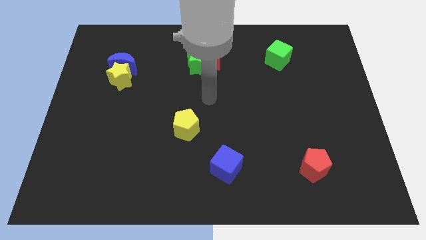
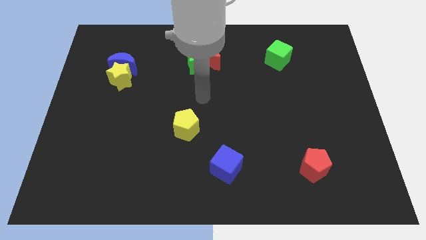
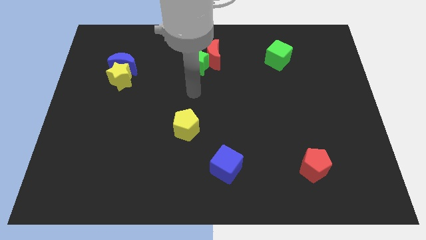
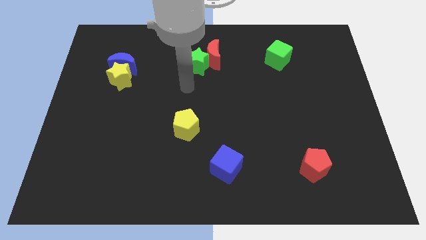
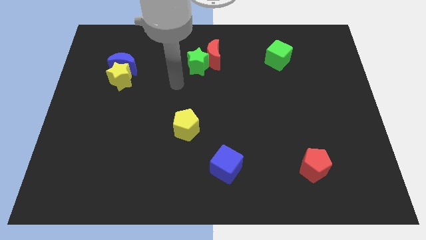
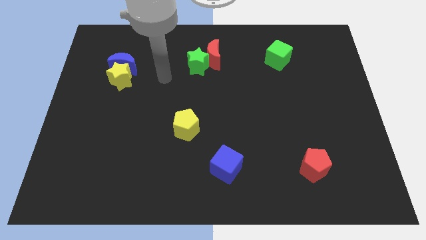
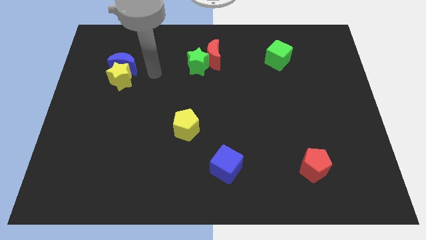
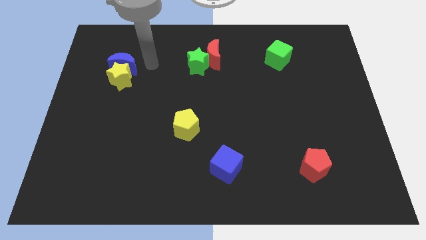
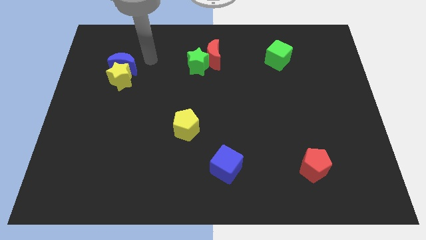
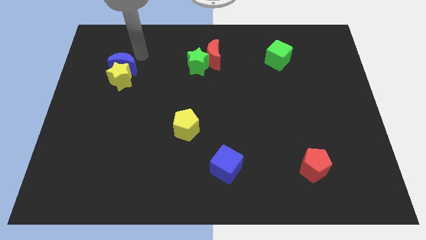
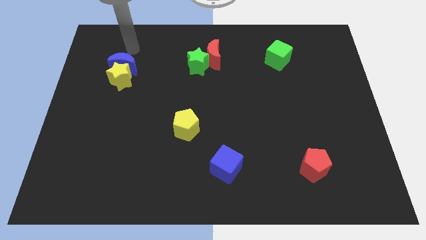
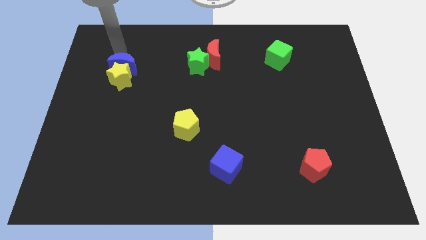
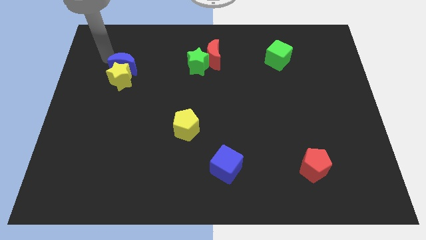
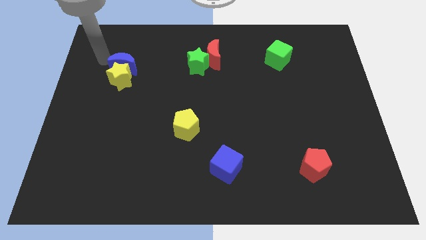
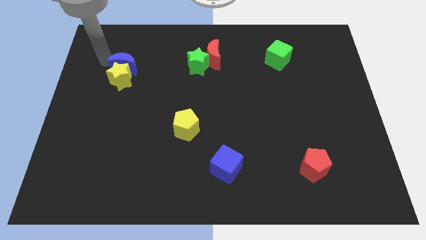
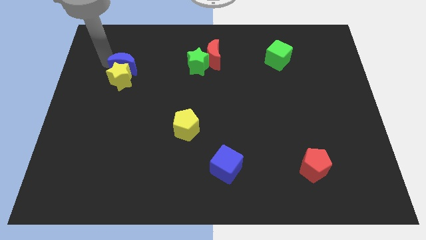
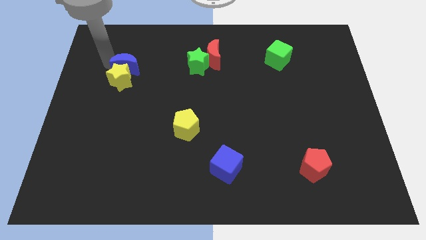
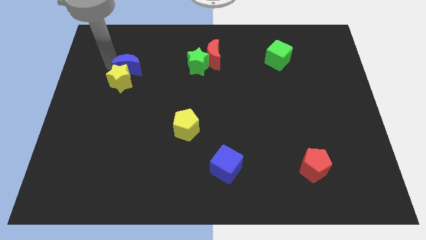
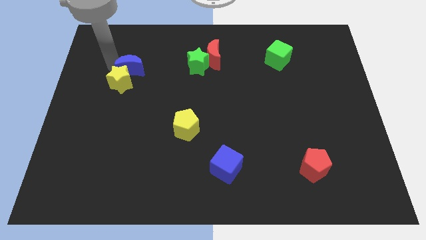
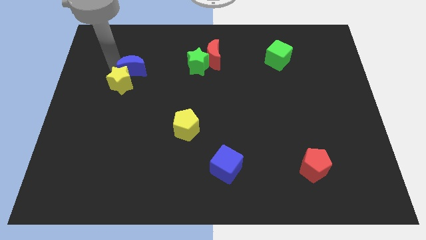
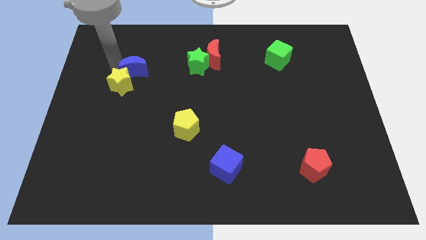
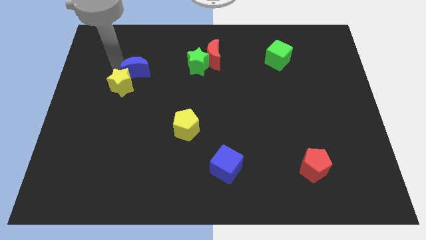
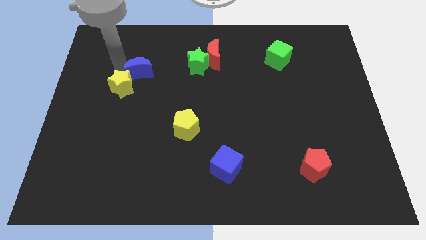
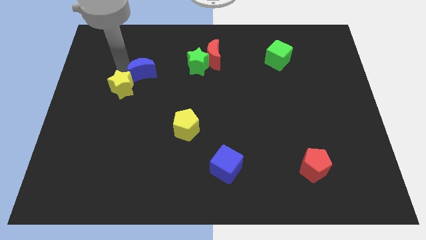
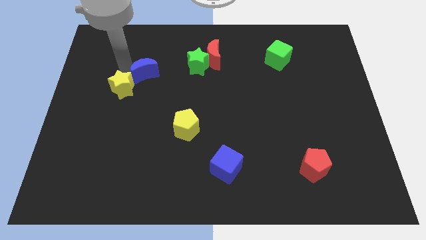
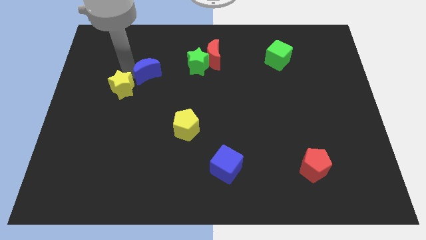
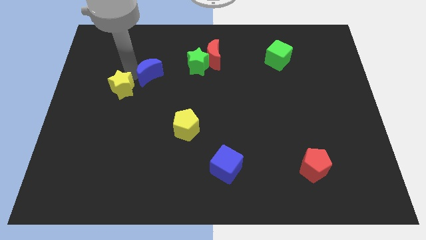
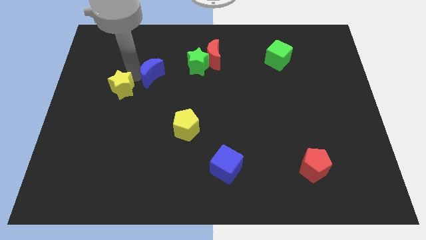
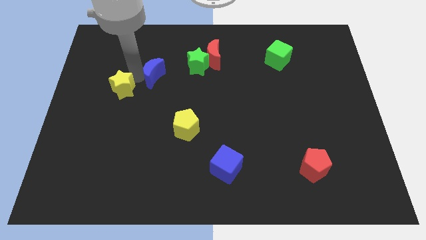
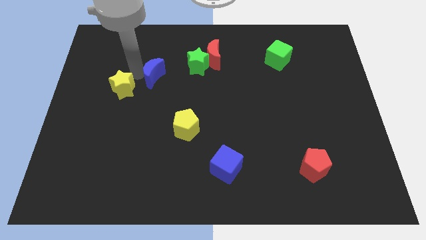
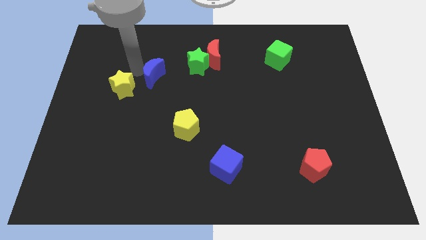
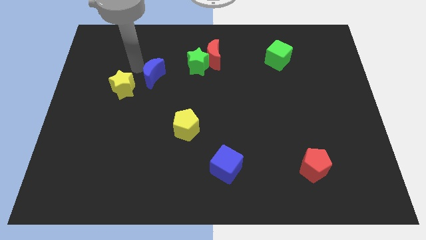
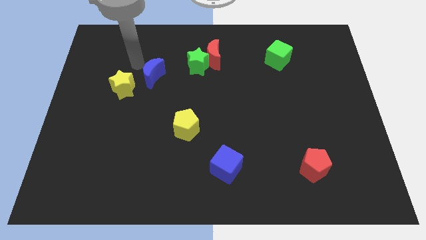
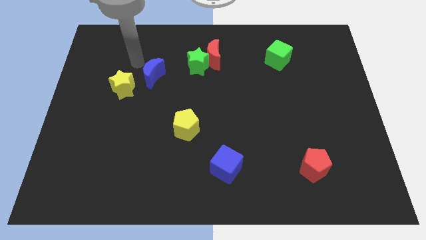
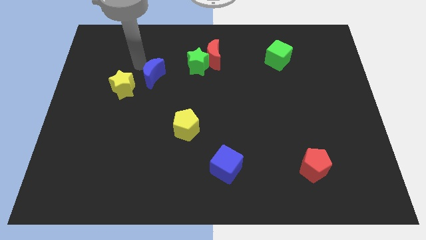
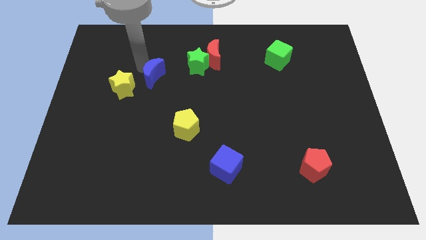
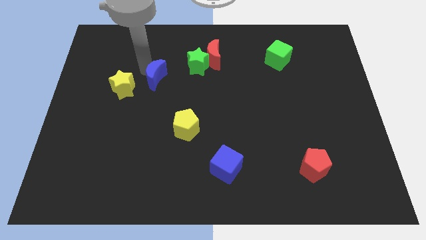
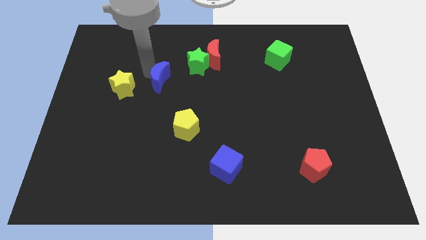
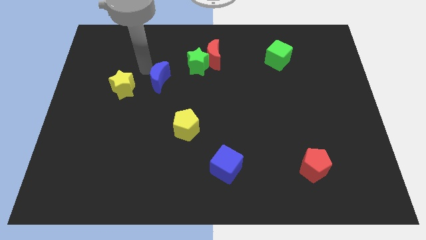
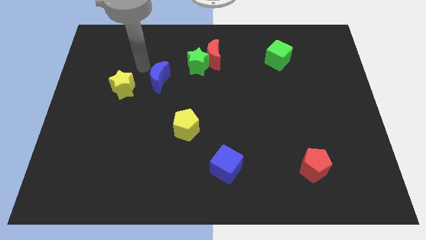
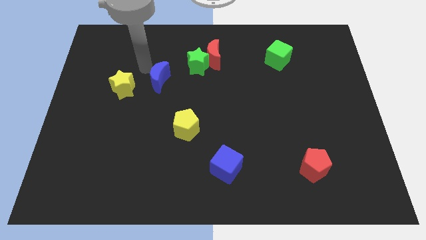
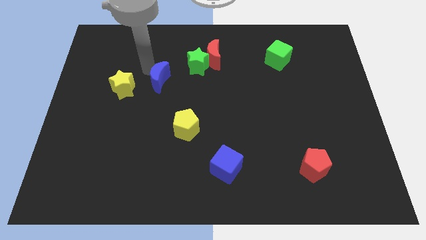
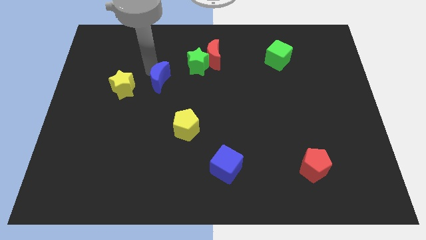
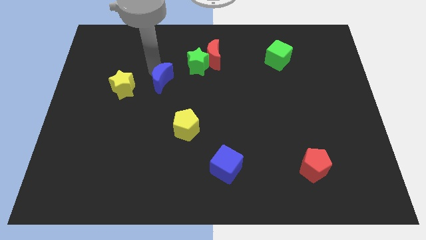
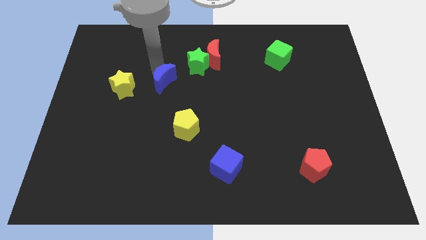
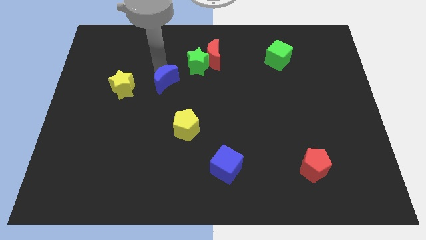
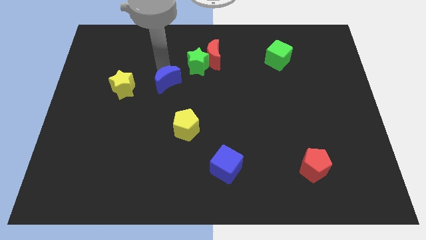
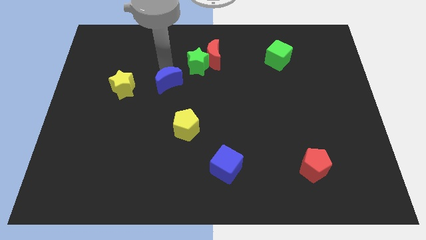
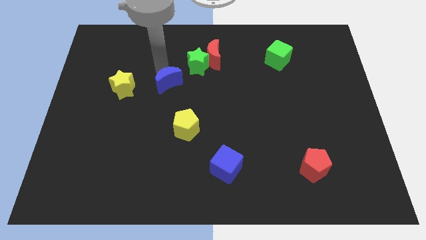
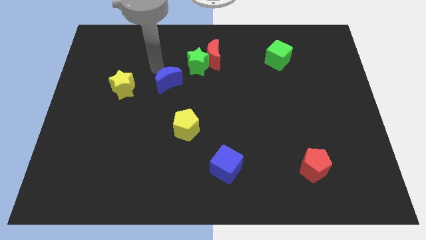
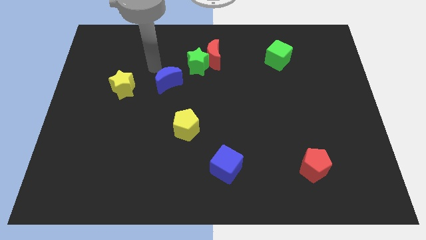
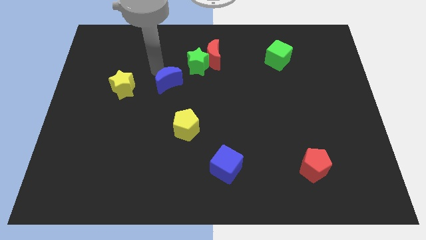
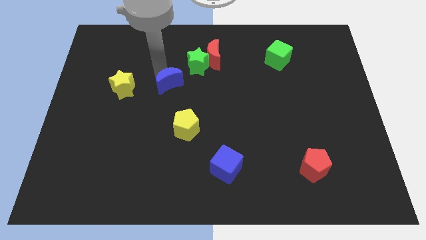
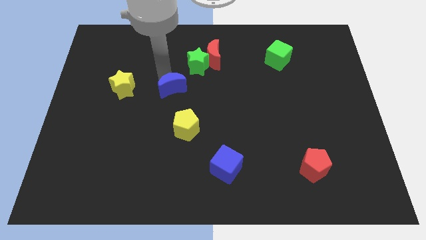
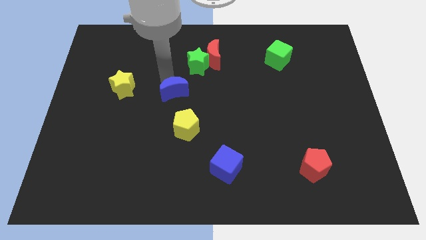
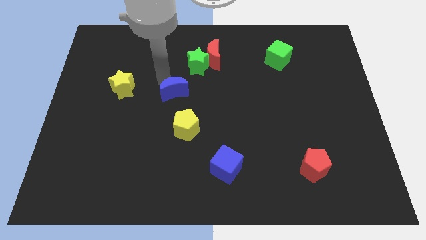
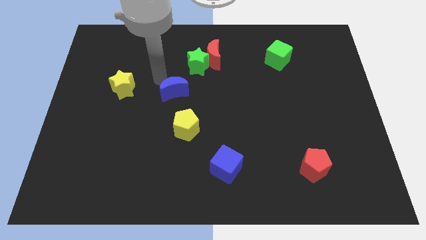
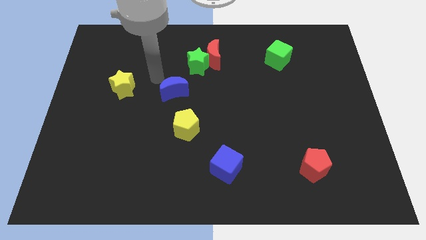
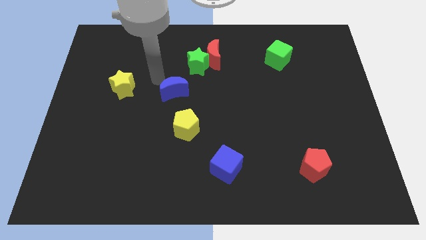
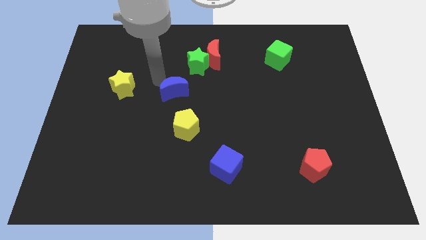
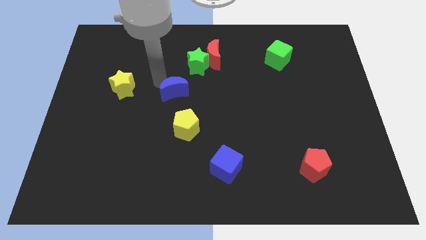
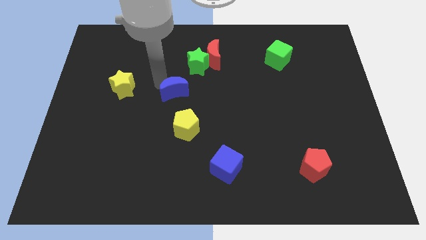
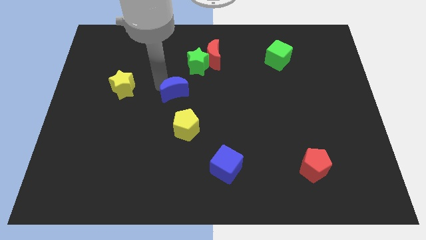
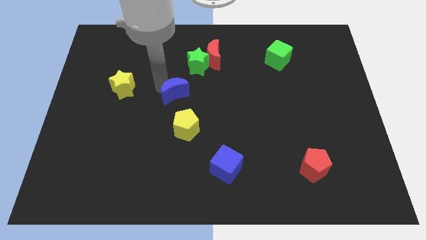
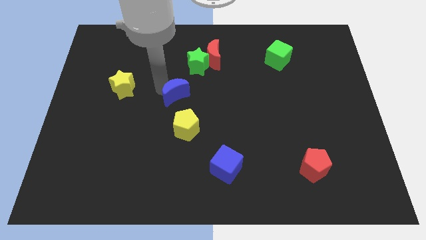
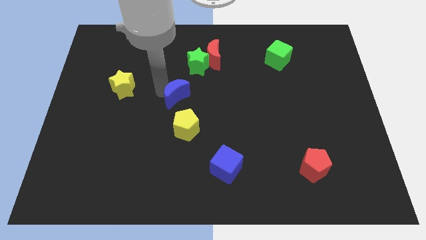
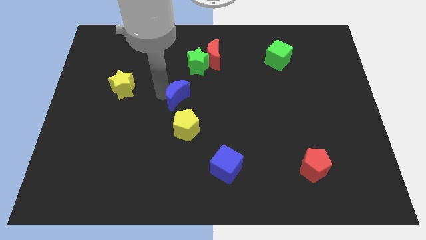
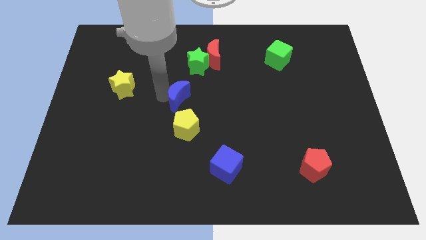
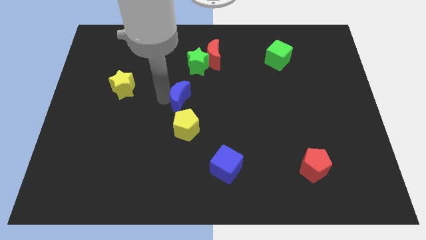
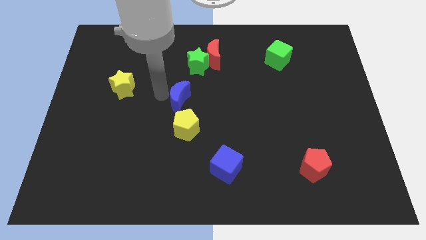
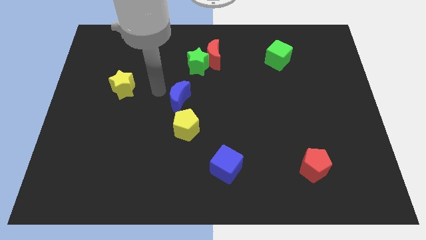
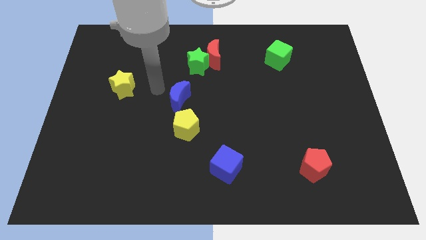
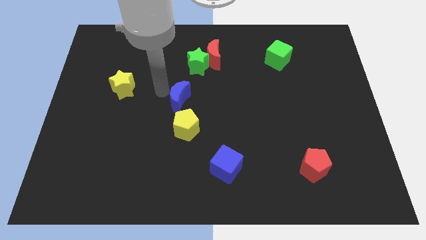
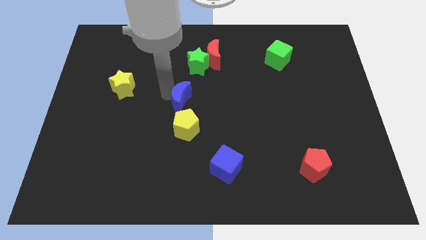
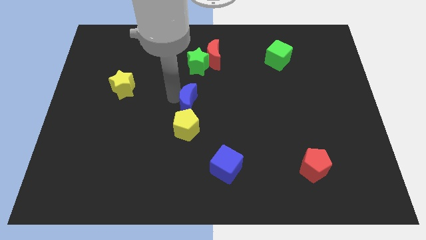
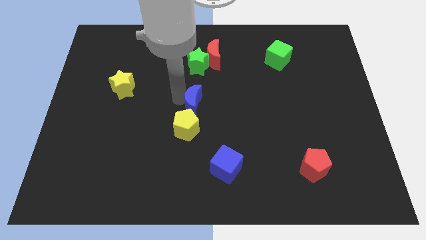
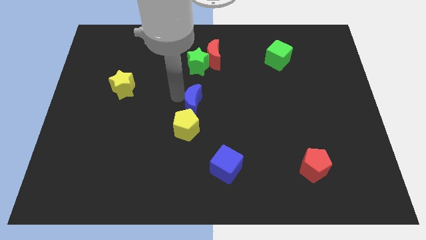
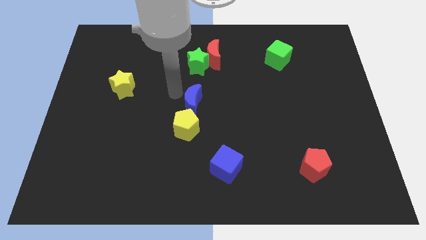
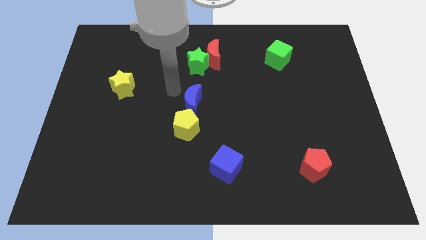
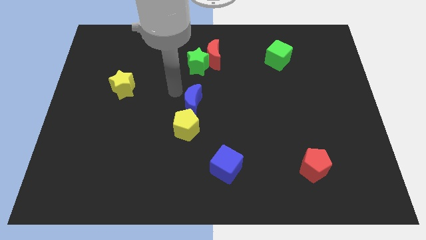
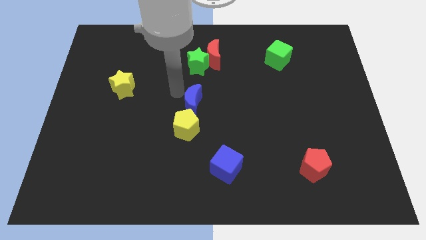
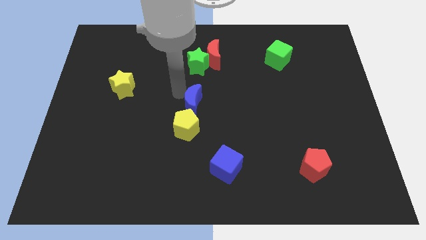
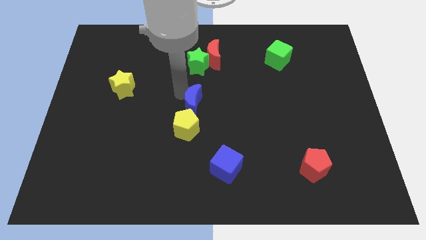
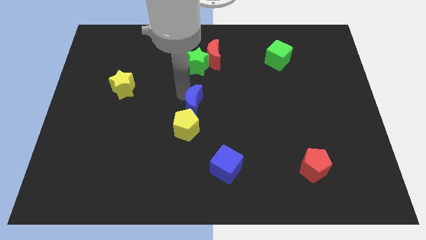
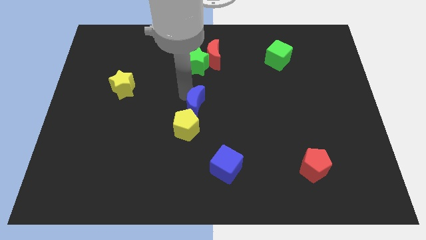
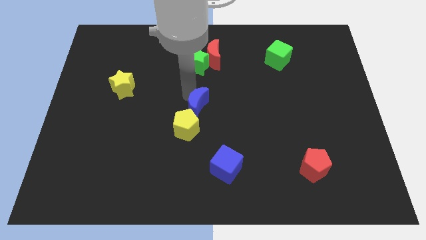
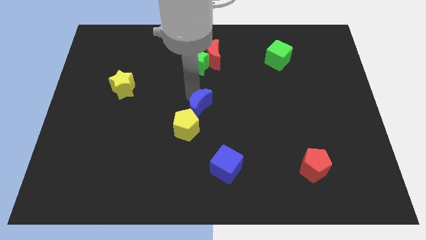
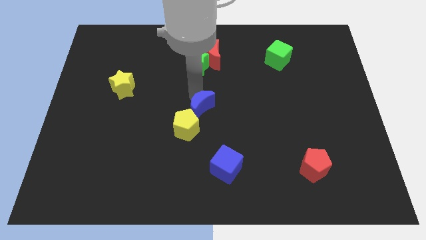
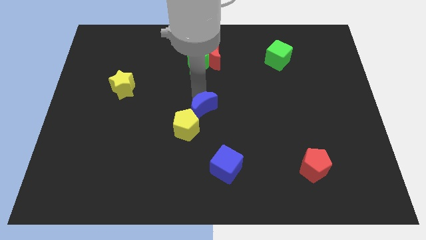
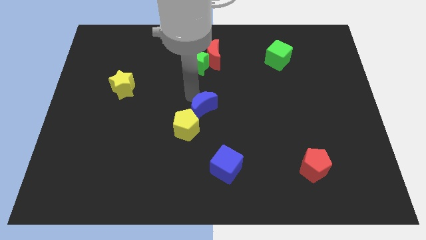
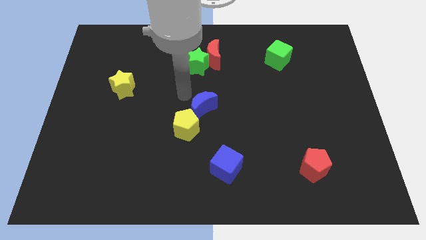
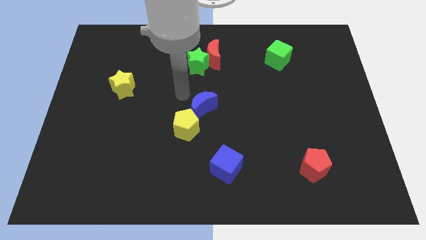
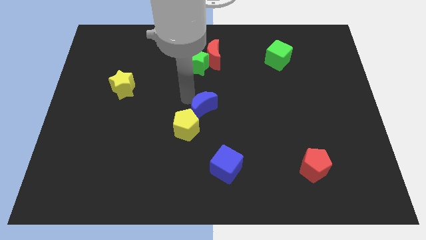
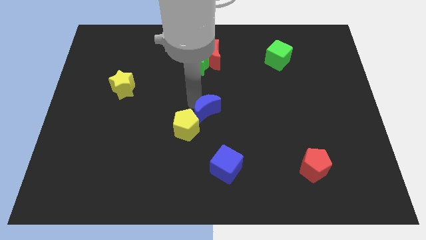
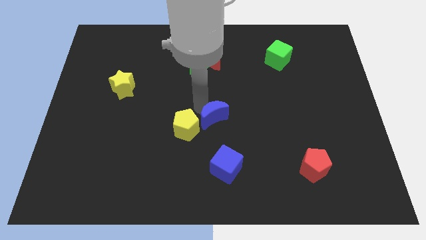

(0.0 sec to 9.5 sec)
push the blue moon to the right side of the yellow pentagon
